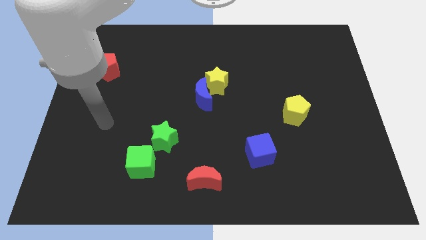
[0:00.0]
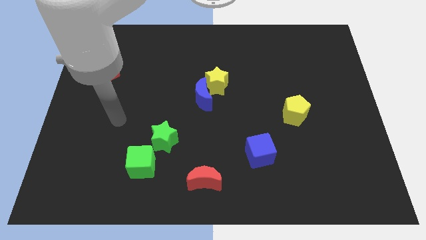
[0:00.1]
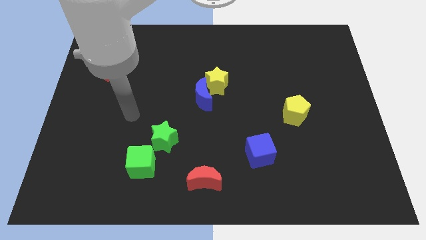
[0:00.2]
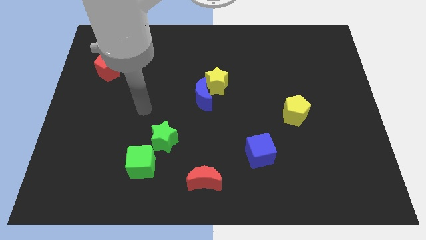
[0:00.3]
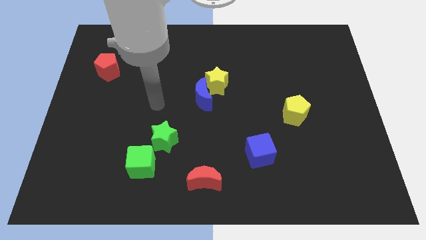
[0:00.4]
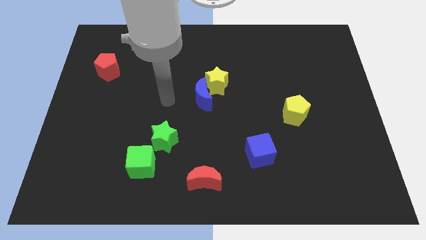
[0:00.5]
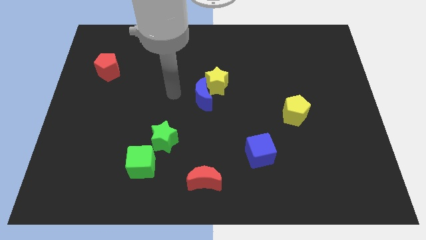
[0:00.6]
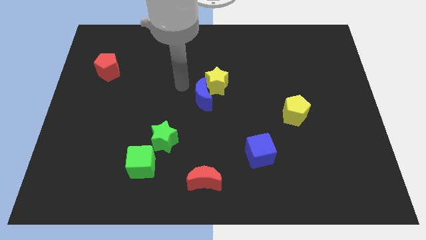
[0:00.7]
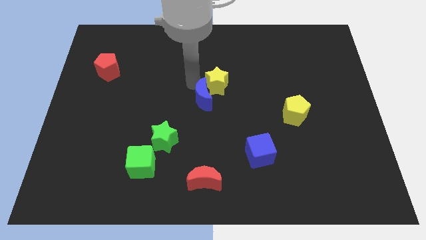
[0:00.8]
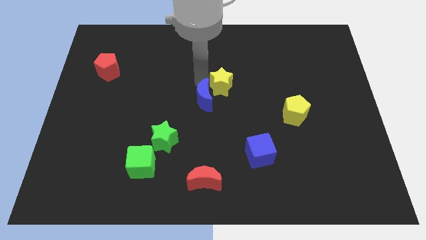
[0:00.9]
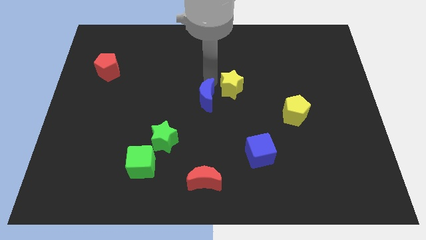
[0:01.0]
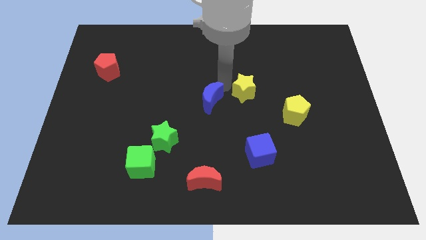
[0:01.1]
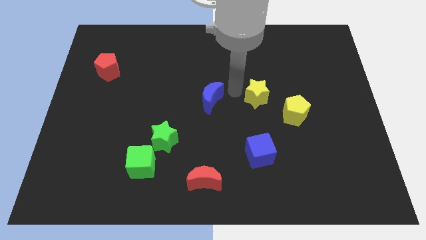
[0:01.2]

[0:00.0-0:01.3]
separate the blue moon from the yellow star

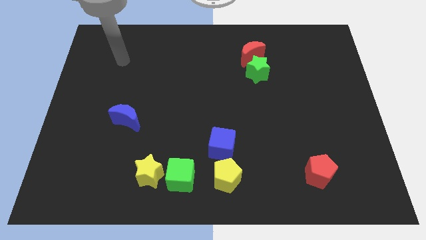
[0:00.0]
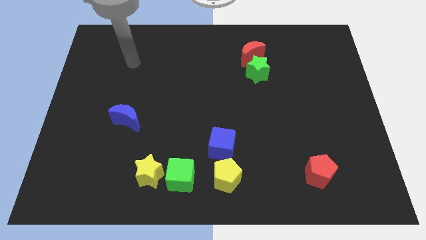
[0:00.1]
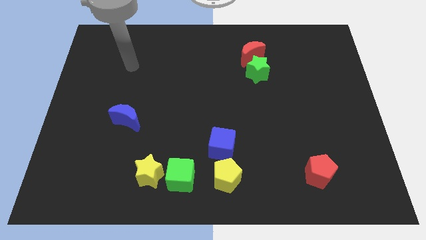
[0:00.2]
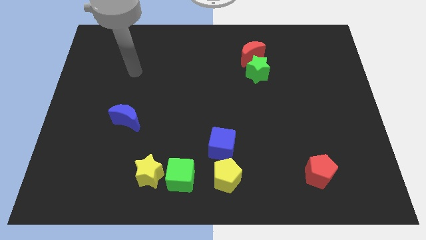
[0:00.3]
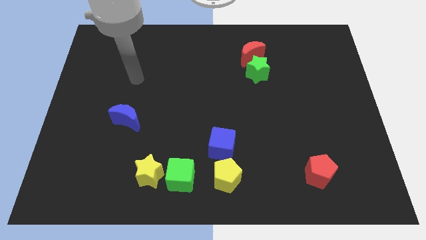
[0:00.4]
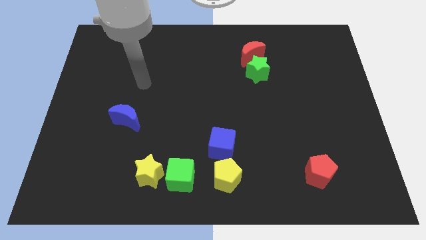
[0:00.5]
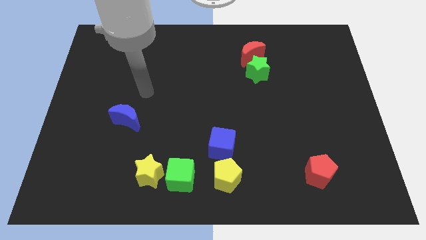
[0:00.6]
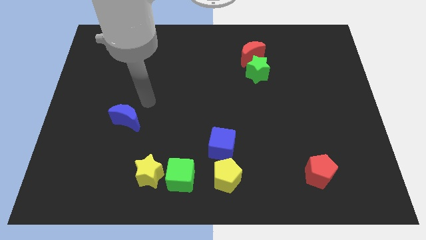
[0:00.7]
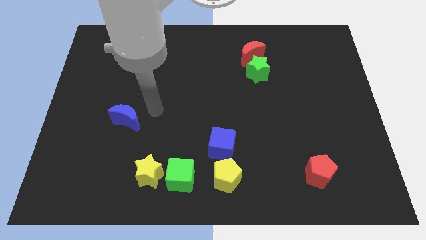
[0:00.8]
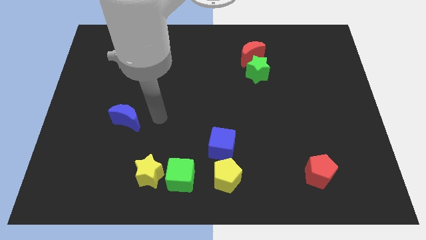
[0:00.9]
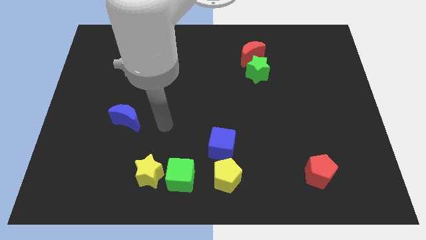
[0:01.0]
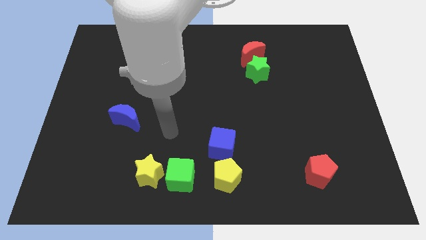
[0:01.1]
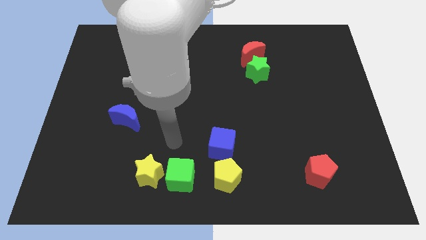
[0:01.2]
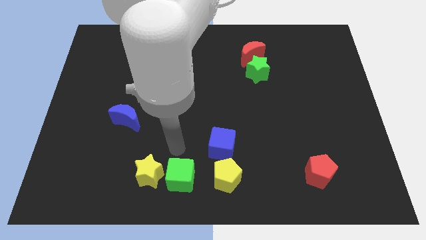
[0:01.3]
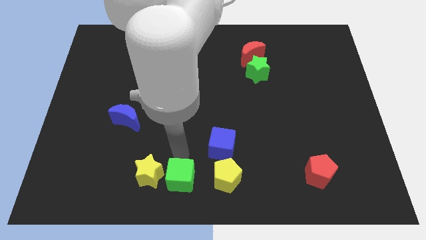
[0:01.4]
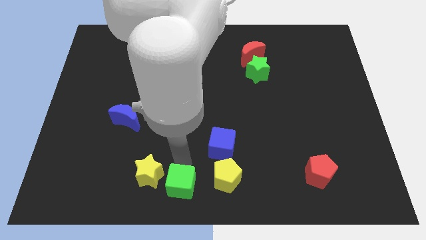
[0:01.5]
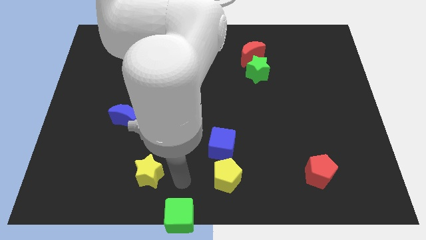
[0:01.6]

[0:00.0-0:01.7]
pull the yellow star apart from the green cube

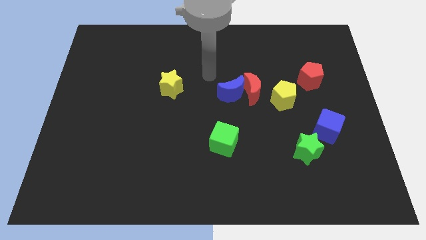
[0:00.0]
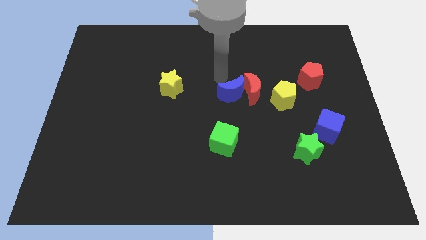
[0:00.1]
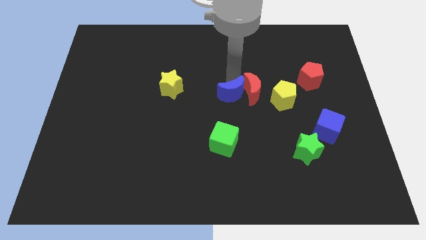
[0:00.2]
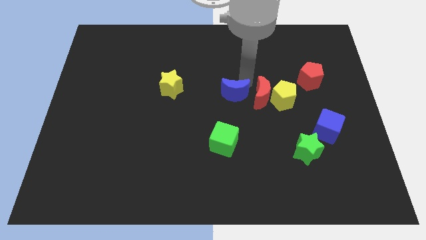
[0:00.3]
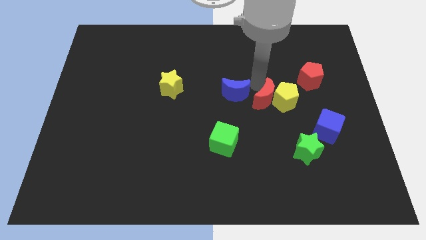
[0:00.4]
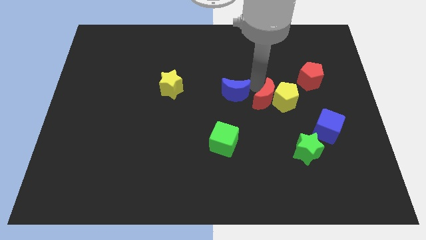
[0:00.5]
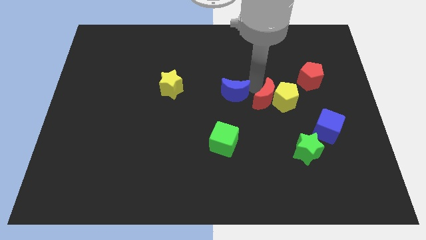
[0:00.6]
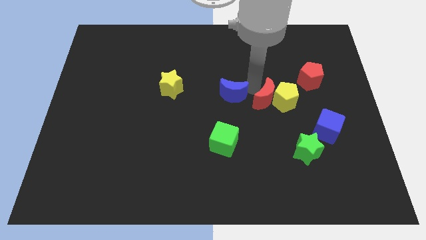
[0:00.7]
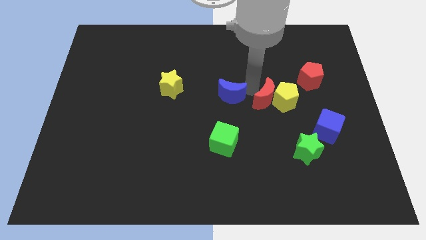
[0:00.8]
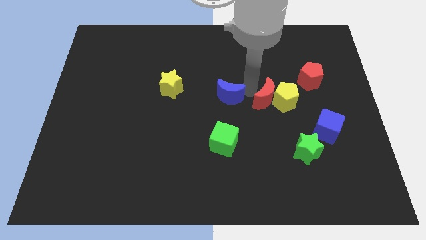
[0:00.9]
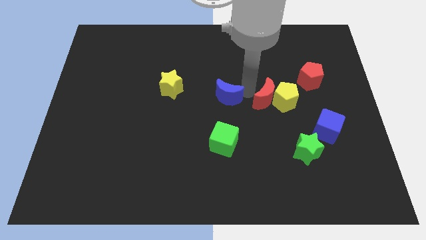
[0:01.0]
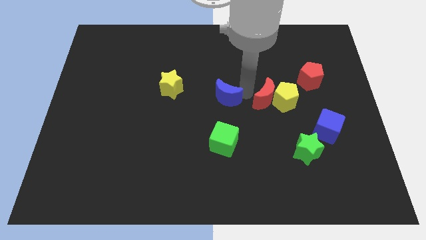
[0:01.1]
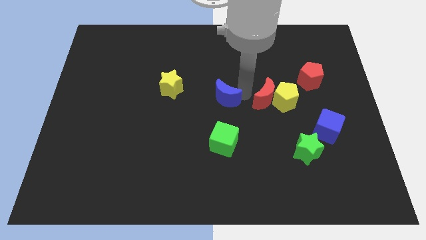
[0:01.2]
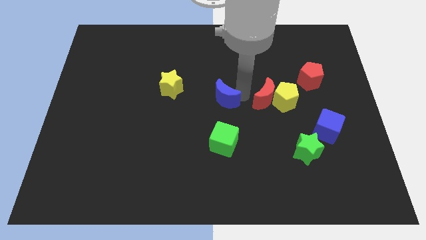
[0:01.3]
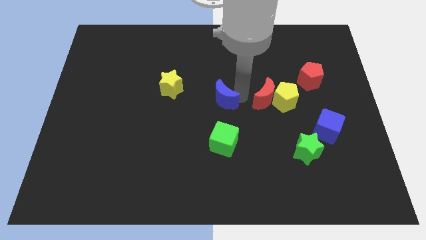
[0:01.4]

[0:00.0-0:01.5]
move the blue moon away from the red moon

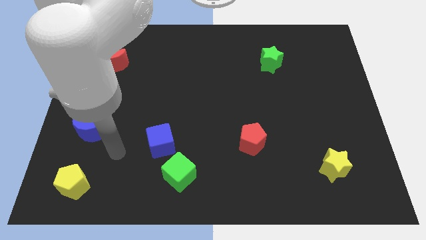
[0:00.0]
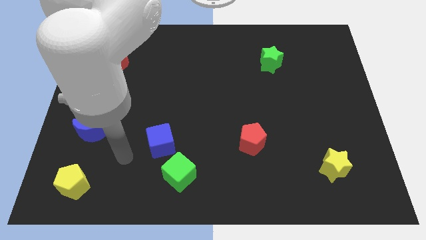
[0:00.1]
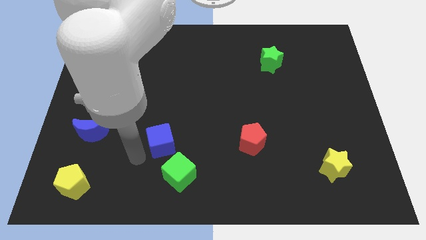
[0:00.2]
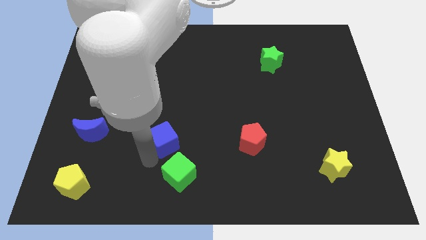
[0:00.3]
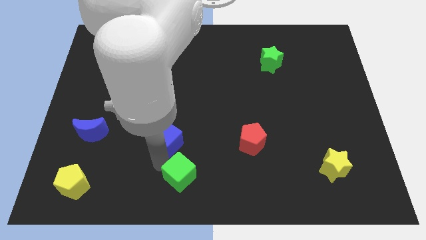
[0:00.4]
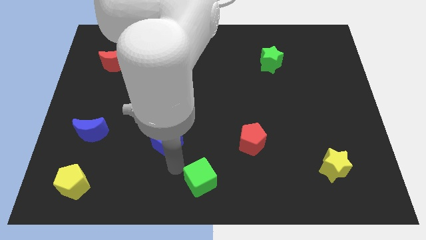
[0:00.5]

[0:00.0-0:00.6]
pull the blue cube apart from the green cube

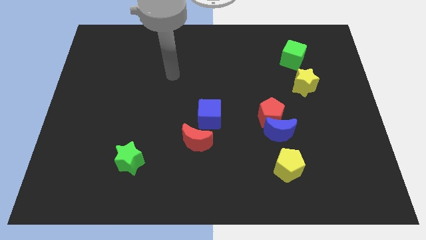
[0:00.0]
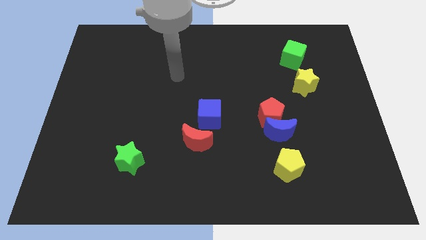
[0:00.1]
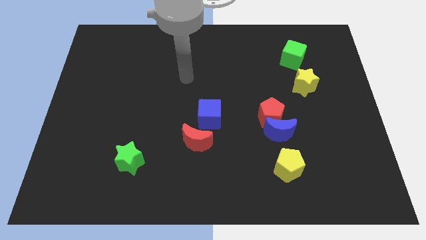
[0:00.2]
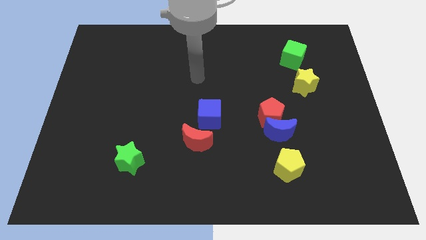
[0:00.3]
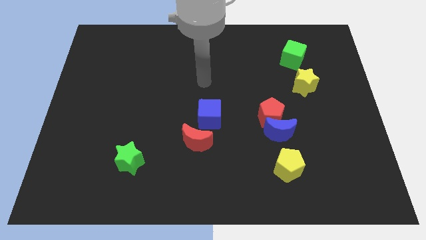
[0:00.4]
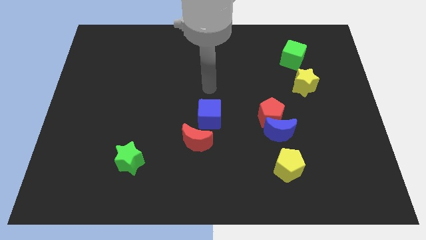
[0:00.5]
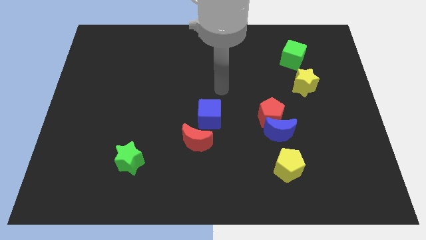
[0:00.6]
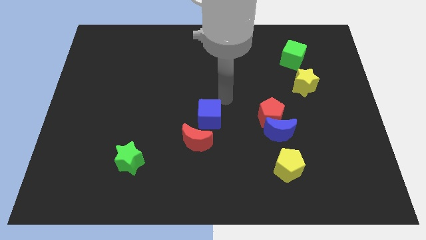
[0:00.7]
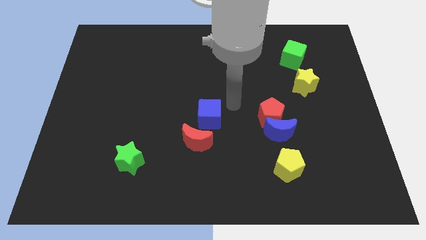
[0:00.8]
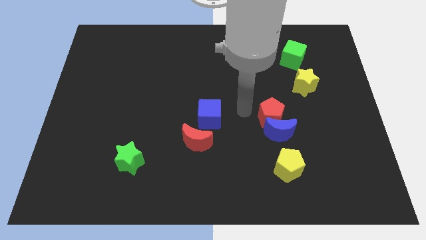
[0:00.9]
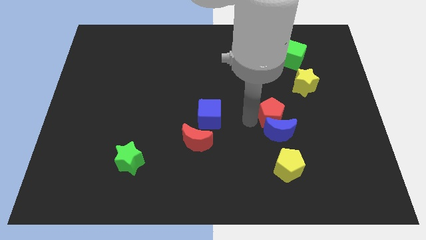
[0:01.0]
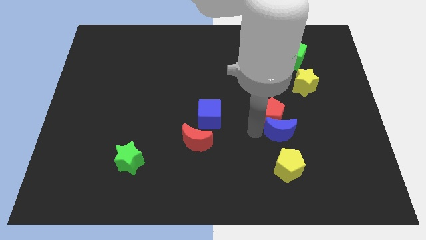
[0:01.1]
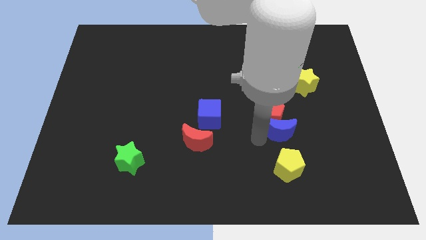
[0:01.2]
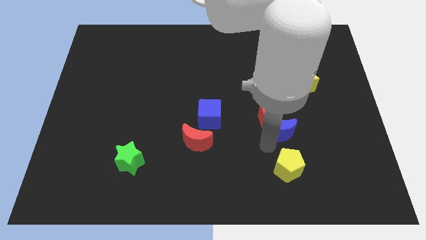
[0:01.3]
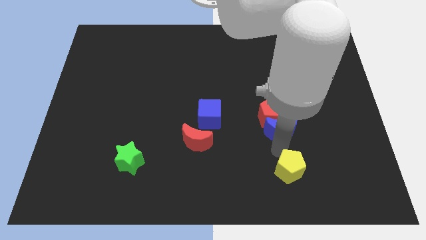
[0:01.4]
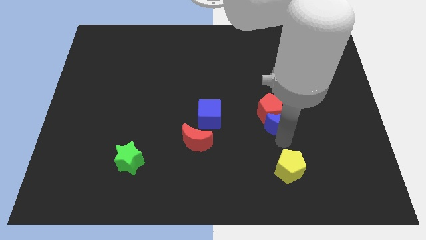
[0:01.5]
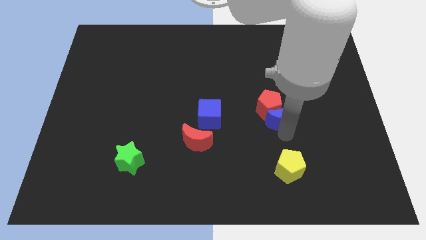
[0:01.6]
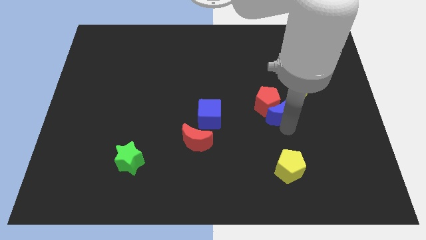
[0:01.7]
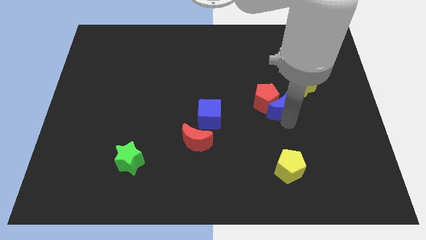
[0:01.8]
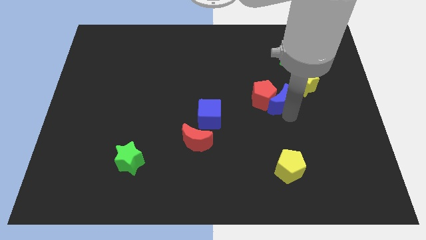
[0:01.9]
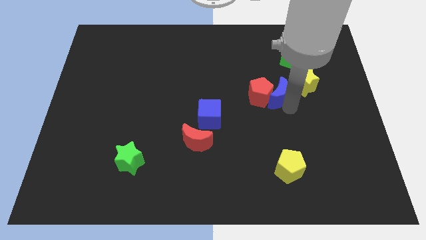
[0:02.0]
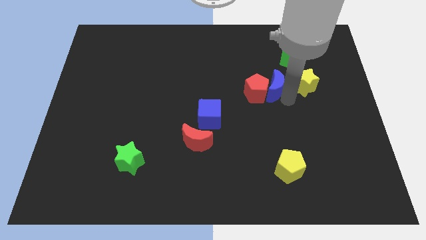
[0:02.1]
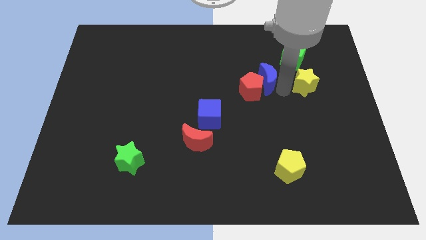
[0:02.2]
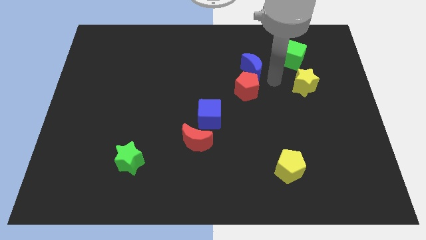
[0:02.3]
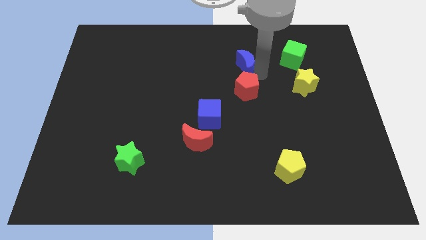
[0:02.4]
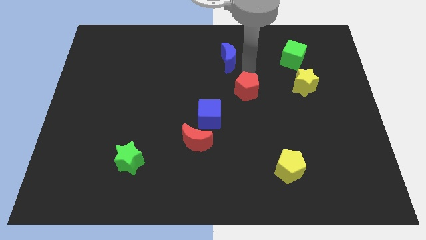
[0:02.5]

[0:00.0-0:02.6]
move the red pentagon away from the blue moon

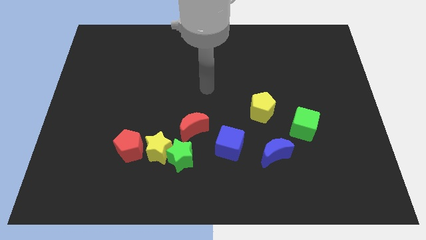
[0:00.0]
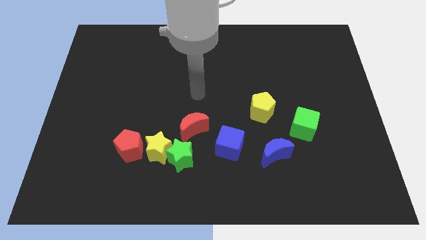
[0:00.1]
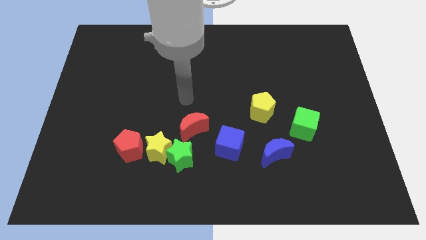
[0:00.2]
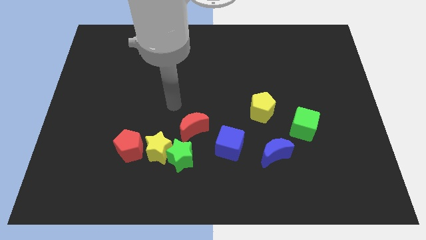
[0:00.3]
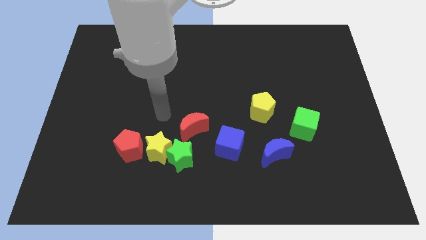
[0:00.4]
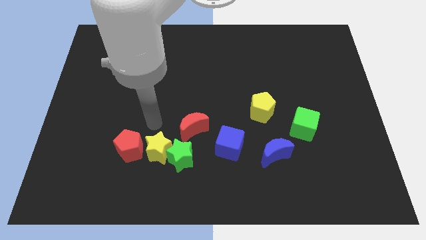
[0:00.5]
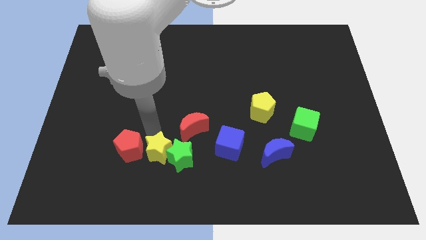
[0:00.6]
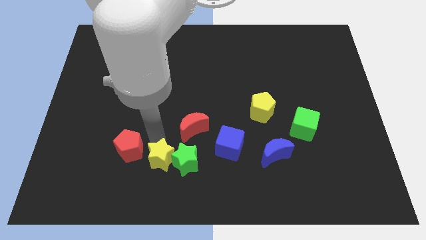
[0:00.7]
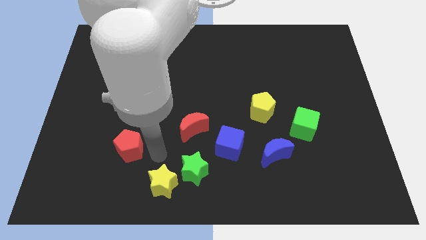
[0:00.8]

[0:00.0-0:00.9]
move the red pentagon away from the yellow star

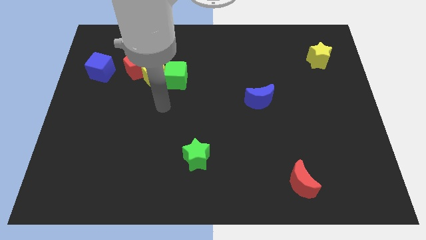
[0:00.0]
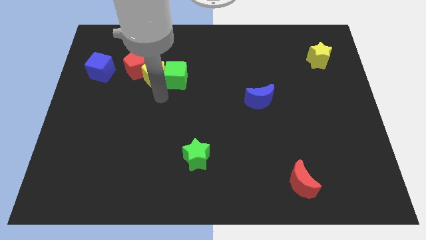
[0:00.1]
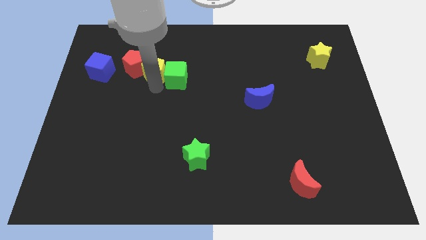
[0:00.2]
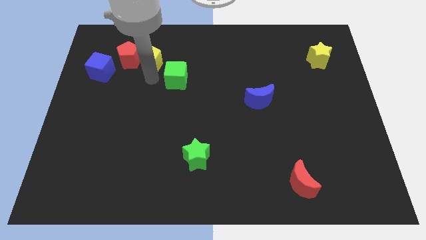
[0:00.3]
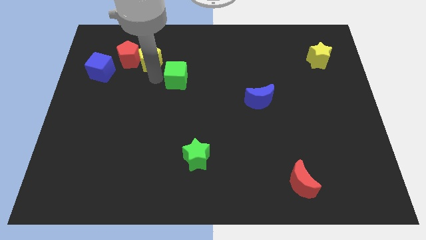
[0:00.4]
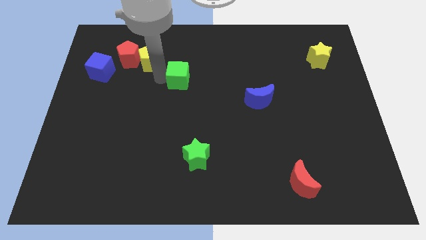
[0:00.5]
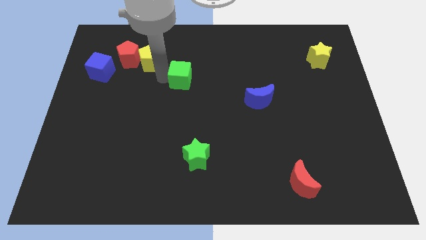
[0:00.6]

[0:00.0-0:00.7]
separate the green cube from the yellow pentagon
